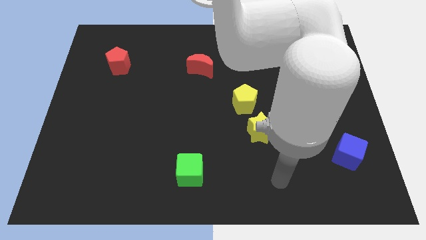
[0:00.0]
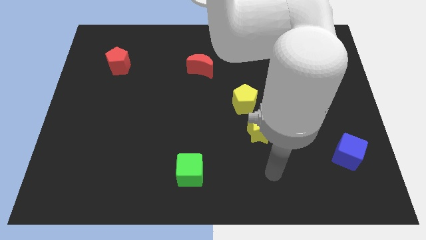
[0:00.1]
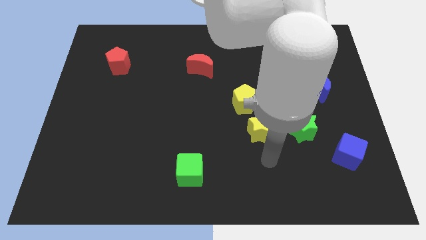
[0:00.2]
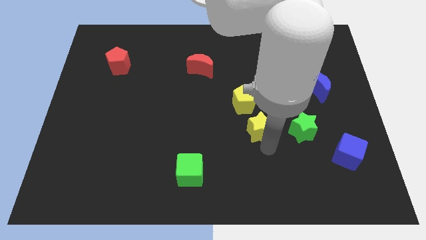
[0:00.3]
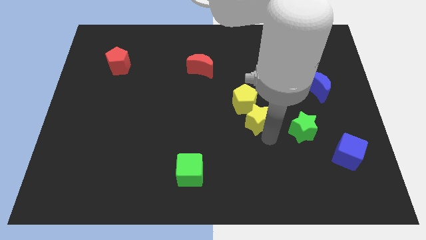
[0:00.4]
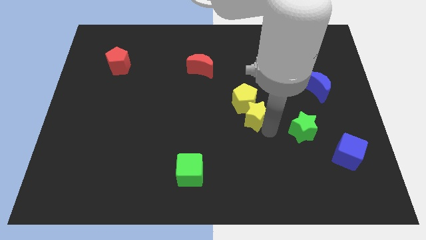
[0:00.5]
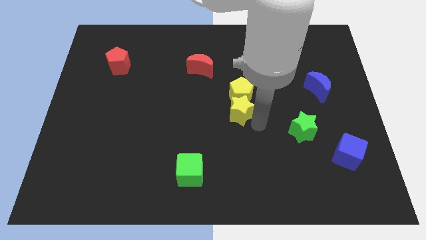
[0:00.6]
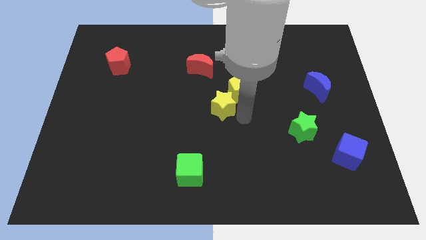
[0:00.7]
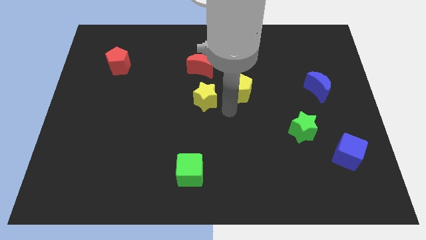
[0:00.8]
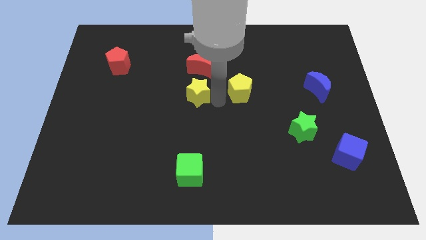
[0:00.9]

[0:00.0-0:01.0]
move the yellow pentagon away from the yellow star

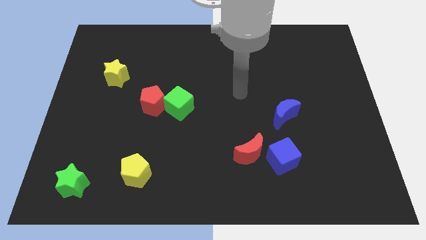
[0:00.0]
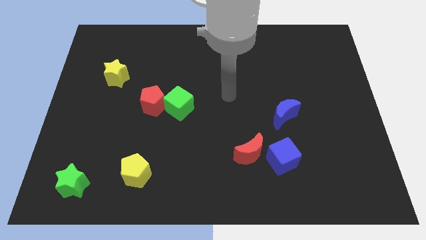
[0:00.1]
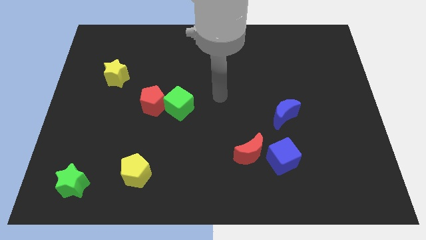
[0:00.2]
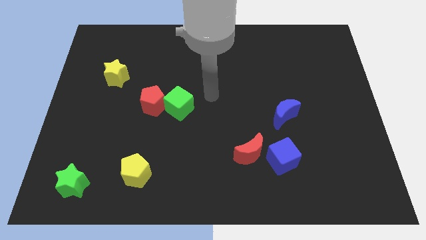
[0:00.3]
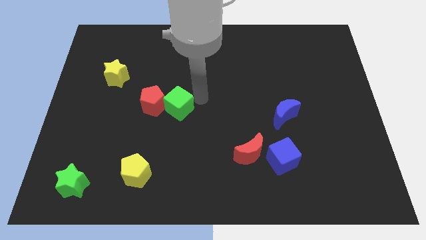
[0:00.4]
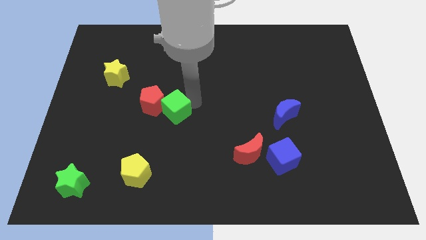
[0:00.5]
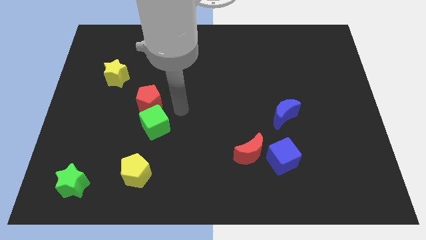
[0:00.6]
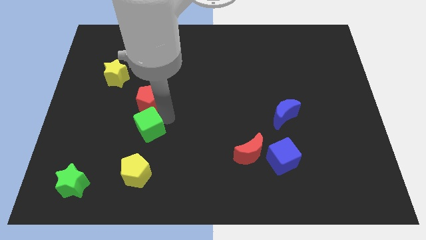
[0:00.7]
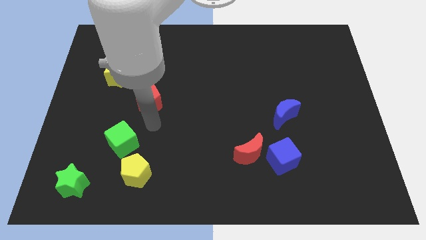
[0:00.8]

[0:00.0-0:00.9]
separate the red pentagon from the green cube

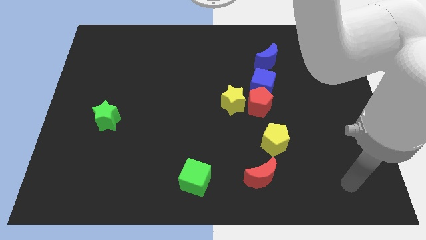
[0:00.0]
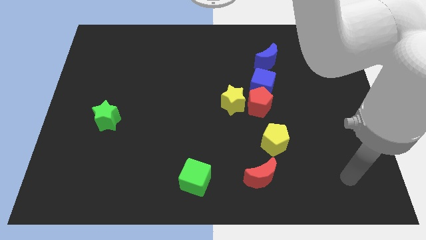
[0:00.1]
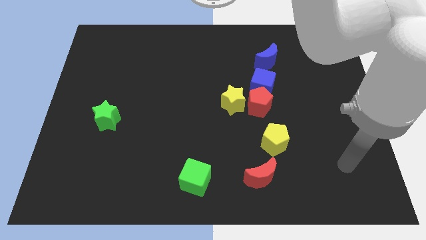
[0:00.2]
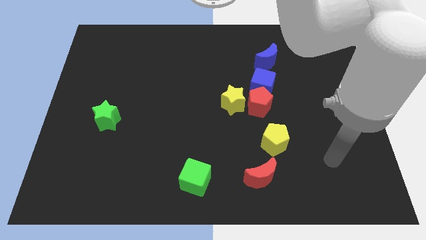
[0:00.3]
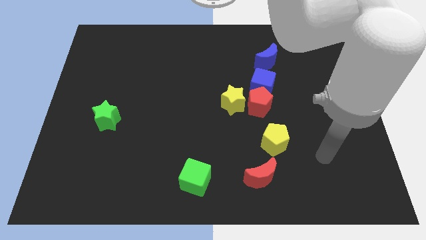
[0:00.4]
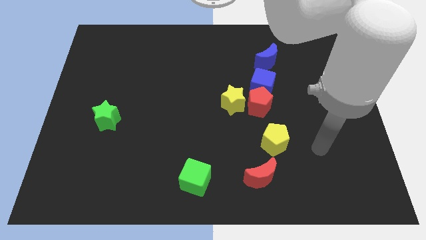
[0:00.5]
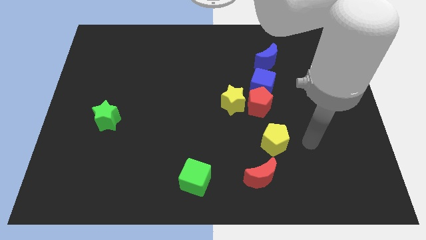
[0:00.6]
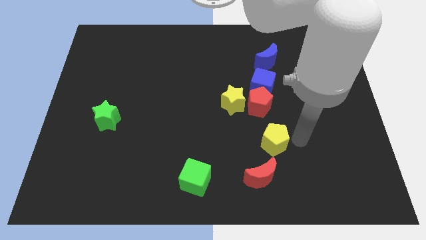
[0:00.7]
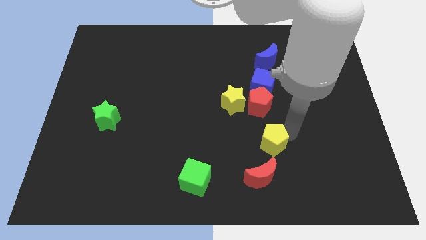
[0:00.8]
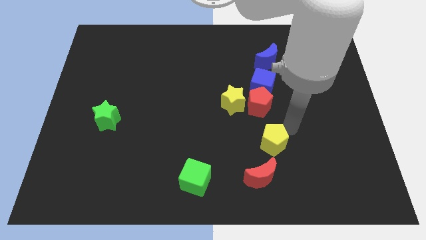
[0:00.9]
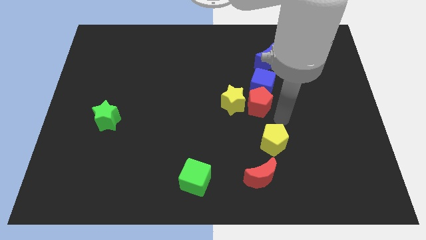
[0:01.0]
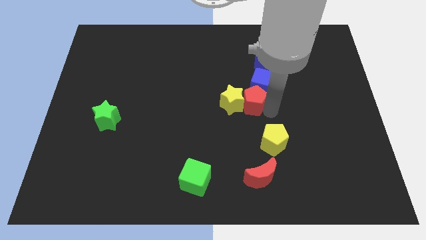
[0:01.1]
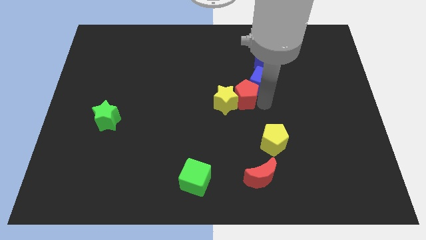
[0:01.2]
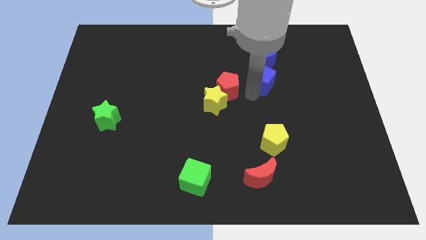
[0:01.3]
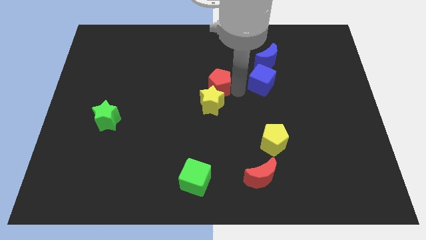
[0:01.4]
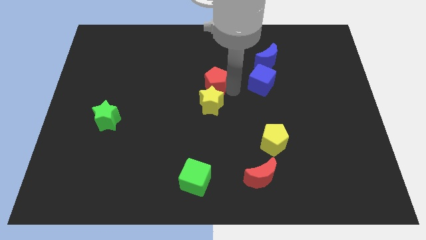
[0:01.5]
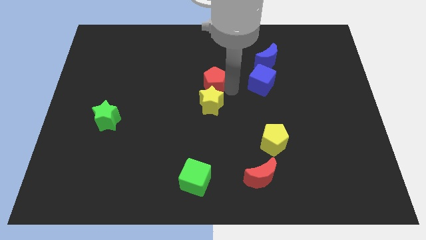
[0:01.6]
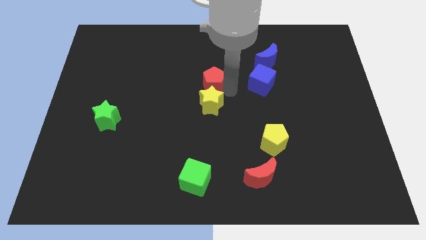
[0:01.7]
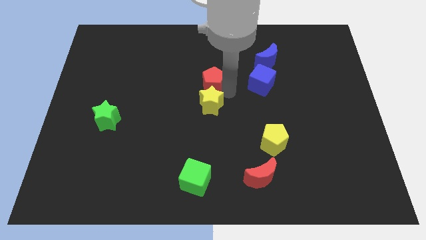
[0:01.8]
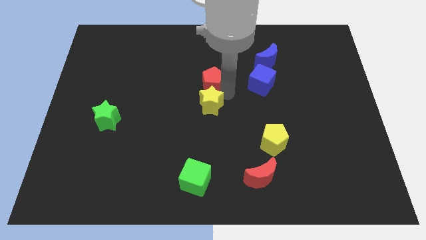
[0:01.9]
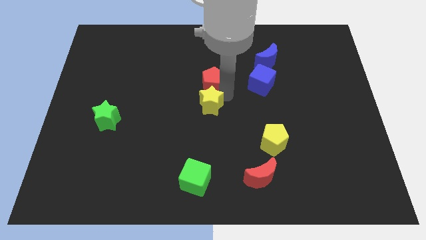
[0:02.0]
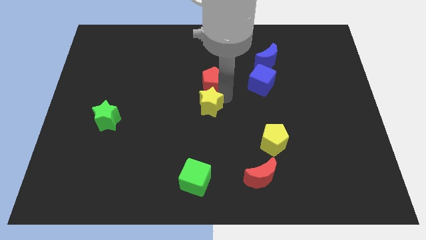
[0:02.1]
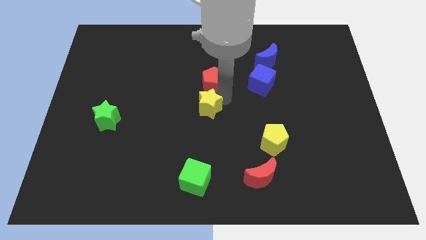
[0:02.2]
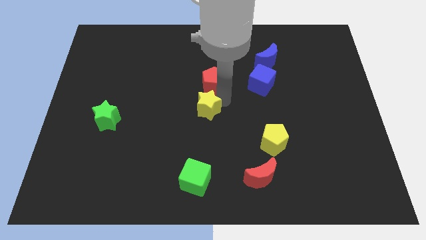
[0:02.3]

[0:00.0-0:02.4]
move the yellow star away from the red pentagon and blue cube

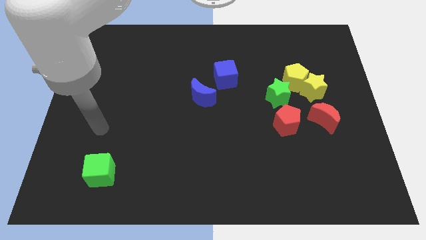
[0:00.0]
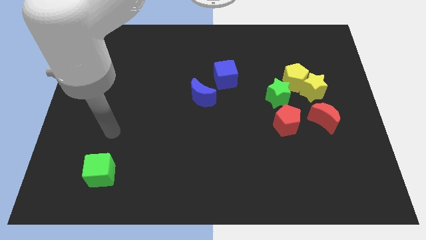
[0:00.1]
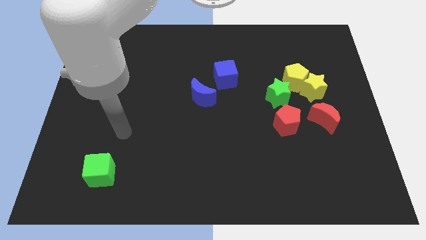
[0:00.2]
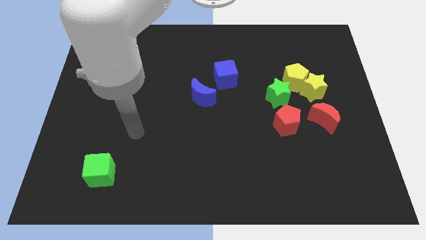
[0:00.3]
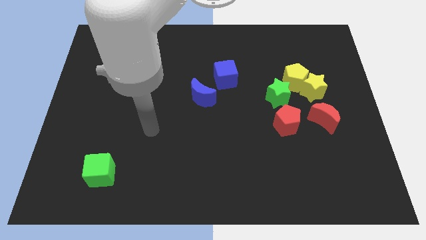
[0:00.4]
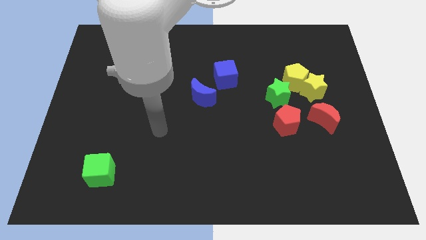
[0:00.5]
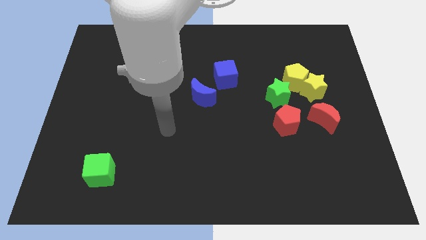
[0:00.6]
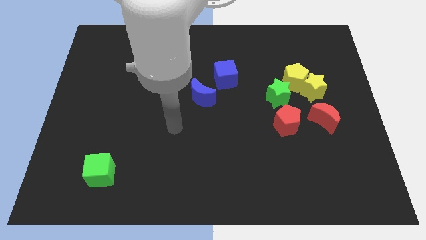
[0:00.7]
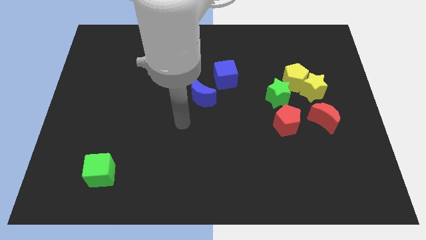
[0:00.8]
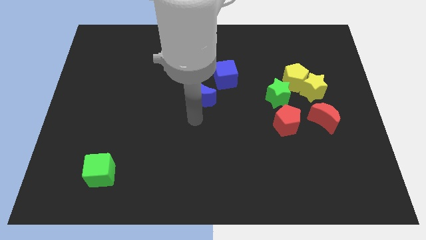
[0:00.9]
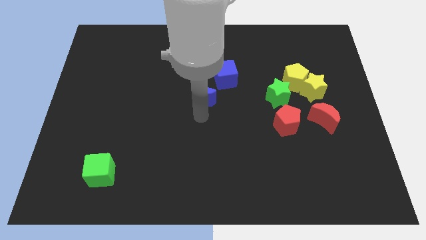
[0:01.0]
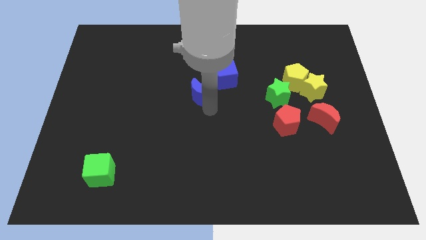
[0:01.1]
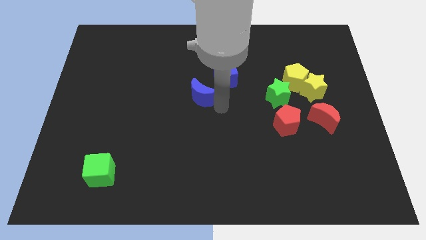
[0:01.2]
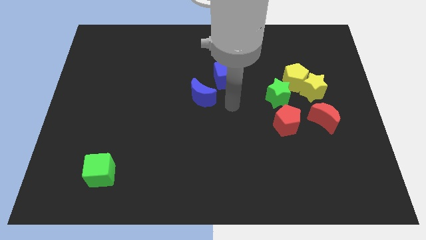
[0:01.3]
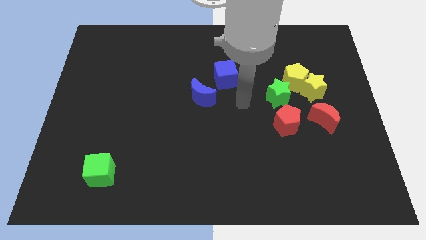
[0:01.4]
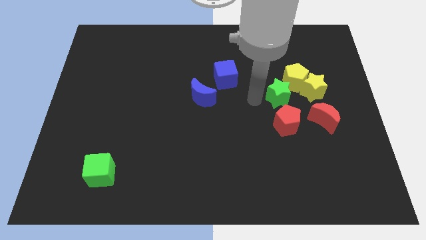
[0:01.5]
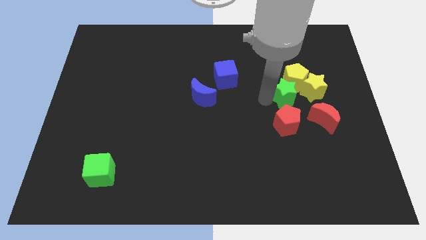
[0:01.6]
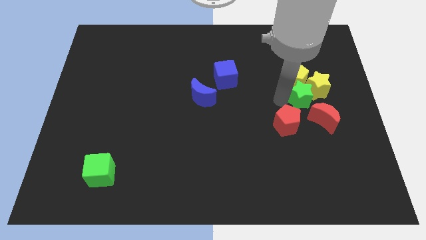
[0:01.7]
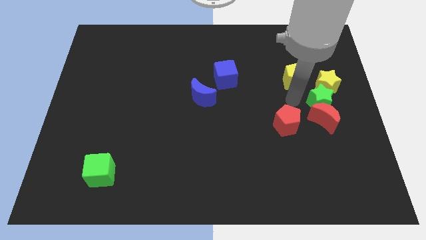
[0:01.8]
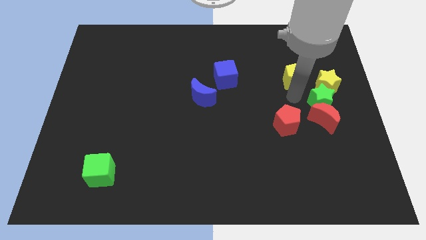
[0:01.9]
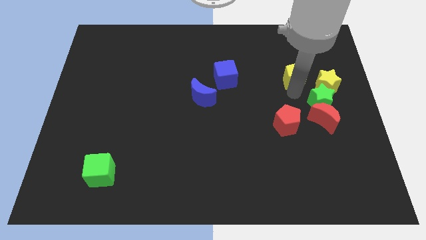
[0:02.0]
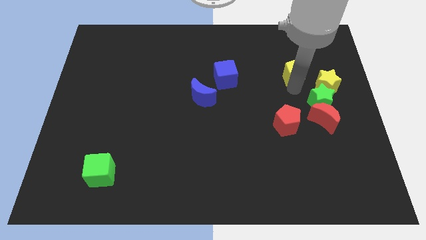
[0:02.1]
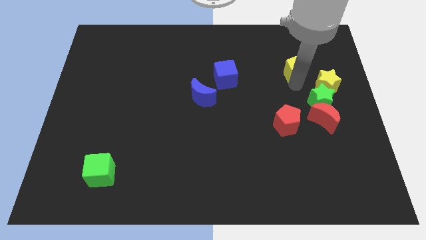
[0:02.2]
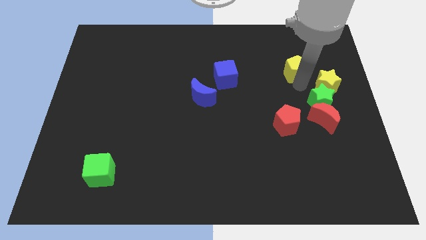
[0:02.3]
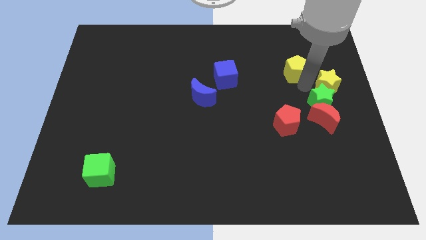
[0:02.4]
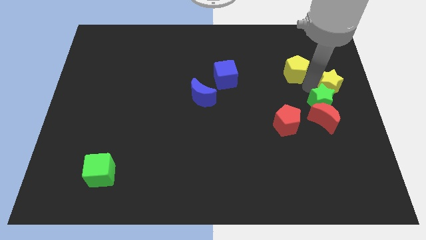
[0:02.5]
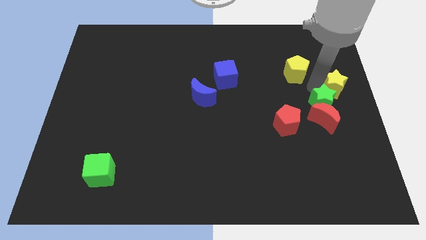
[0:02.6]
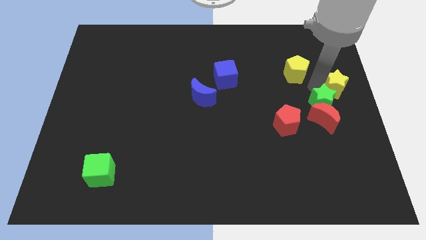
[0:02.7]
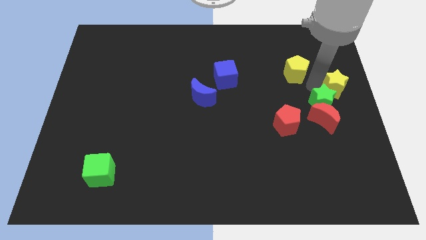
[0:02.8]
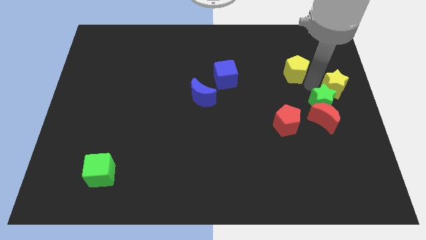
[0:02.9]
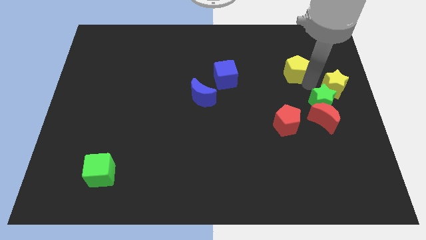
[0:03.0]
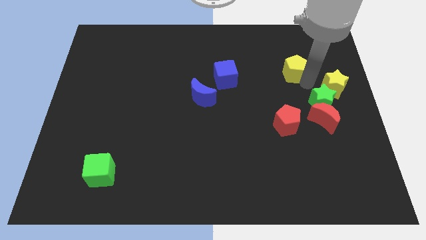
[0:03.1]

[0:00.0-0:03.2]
move the yellow pentagon away from the yellow star and green star

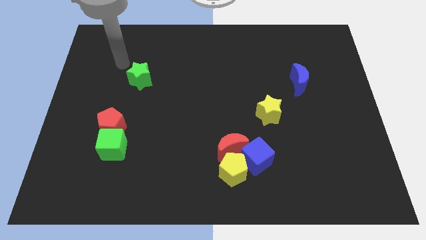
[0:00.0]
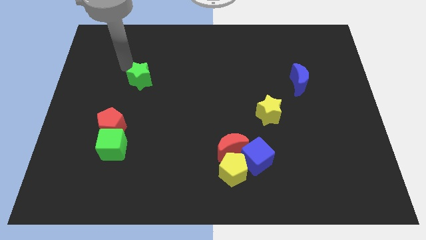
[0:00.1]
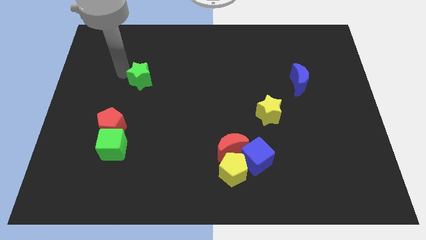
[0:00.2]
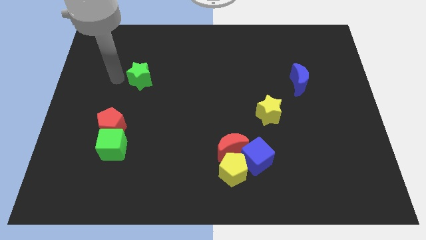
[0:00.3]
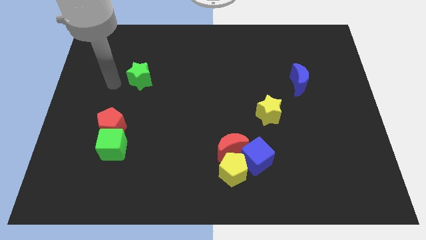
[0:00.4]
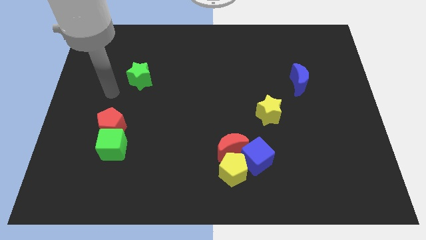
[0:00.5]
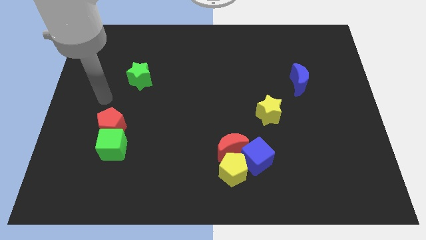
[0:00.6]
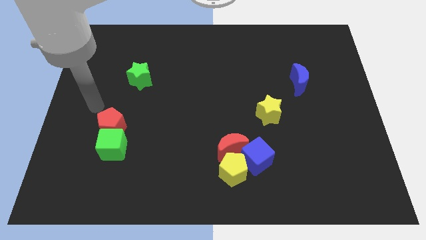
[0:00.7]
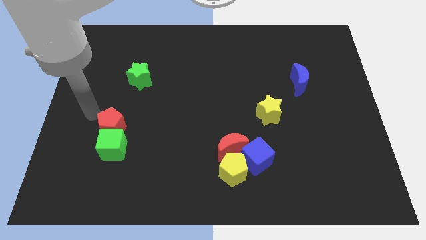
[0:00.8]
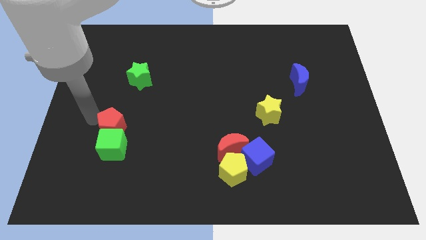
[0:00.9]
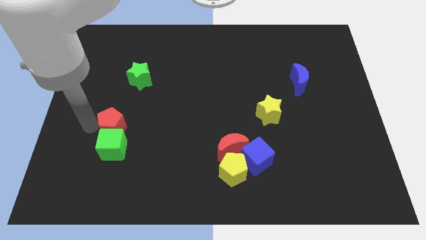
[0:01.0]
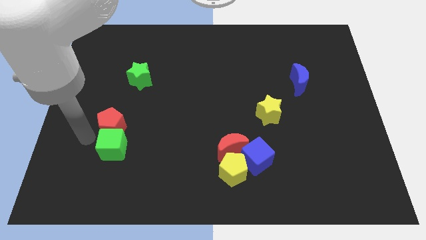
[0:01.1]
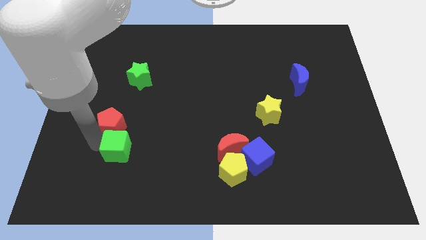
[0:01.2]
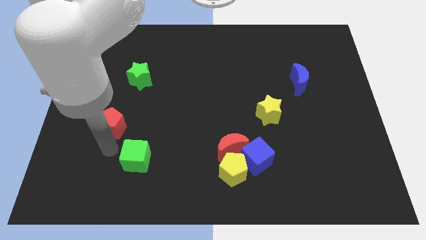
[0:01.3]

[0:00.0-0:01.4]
move the red pentagon away from the green cube

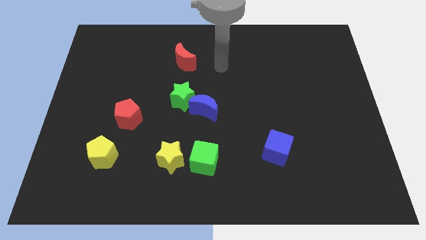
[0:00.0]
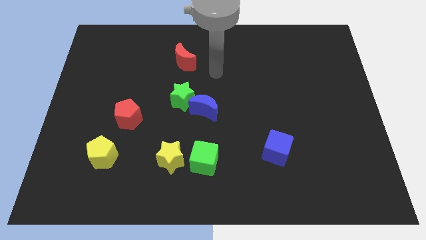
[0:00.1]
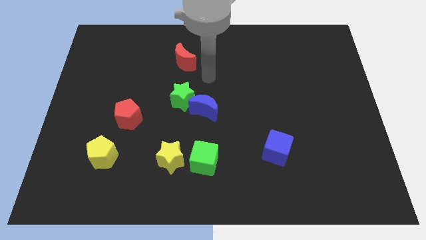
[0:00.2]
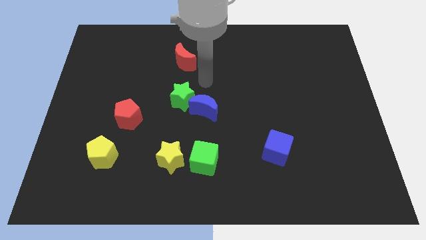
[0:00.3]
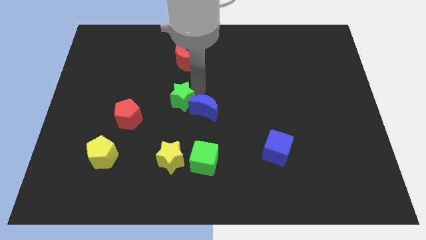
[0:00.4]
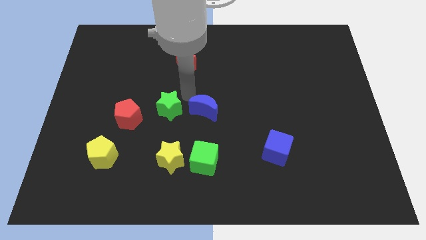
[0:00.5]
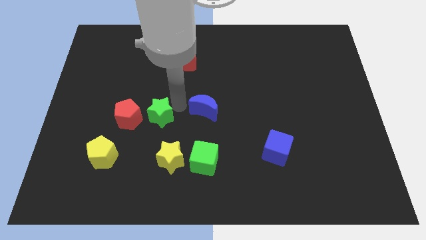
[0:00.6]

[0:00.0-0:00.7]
move the blue moon away from the green star
